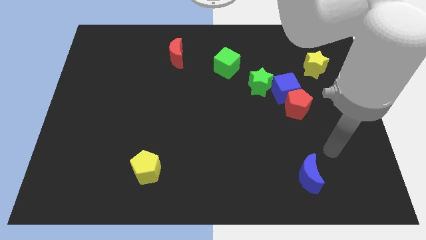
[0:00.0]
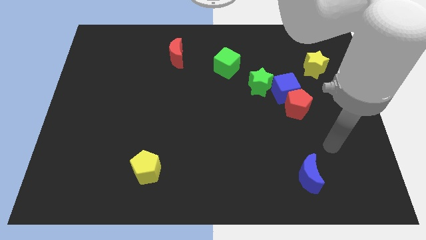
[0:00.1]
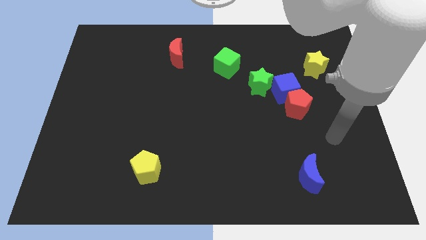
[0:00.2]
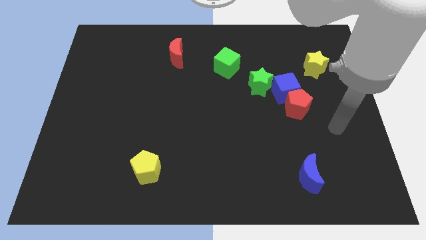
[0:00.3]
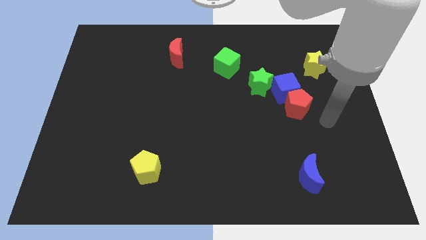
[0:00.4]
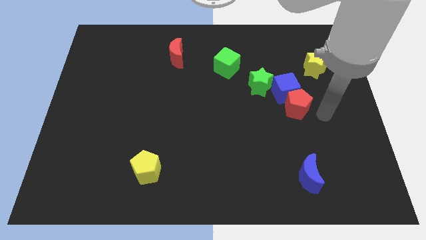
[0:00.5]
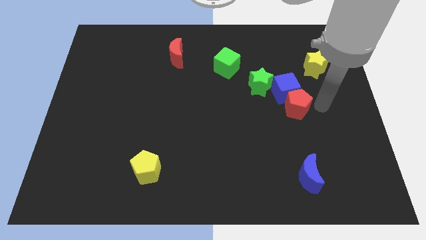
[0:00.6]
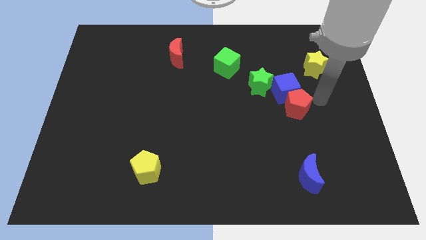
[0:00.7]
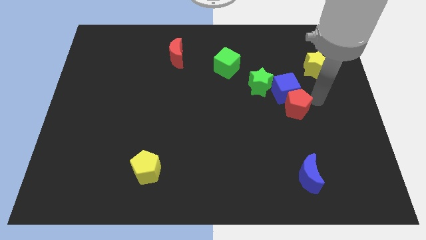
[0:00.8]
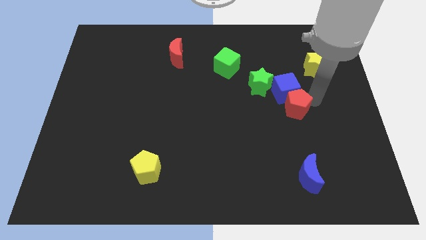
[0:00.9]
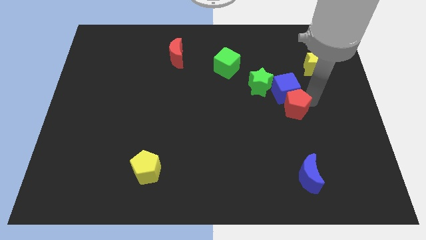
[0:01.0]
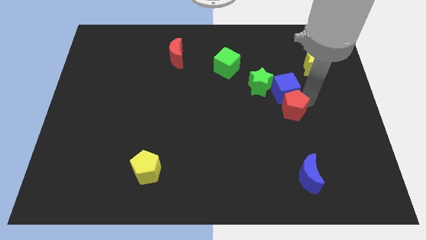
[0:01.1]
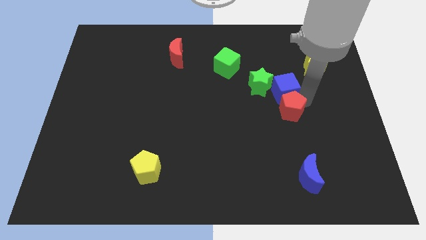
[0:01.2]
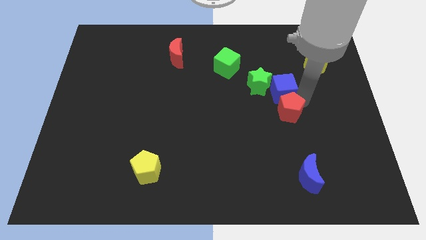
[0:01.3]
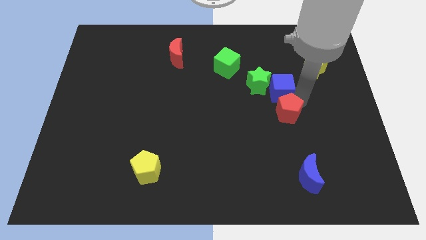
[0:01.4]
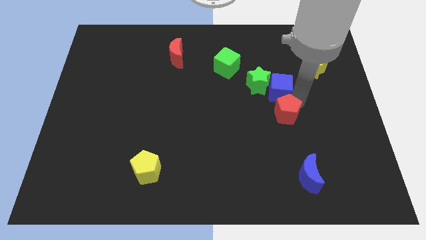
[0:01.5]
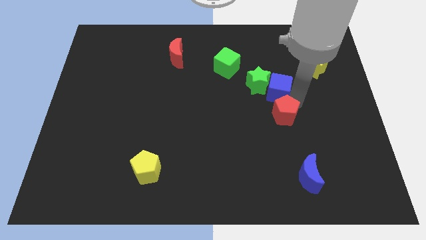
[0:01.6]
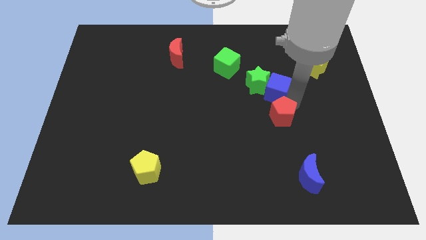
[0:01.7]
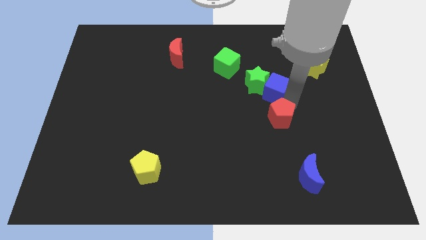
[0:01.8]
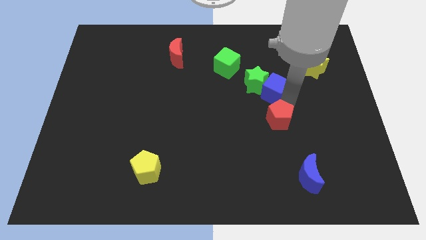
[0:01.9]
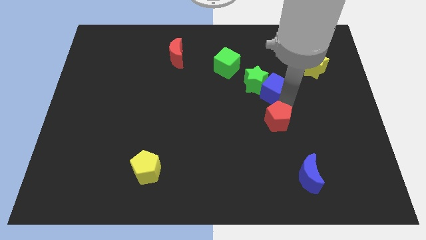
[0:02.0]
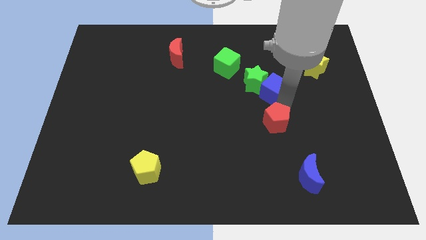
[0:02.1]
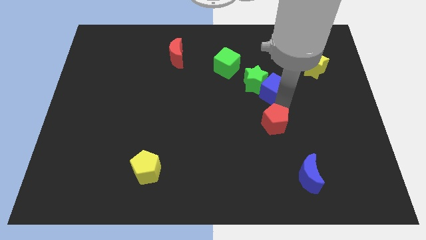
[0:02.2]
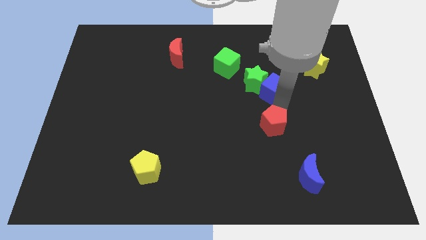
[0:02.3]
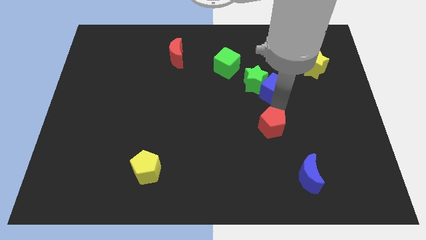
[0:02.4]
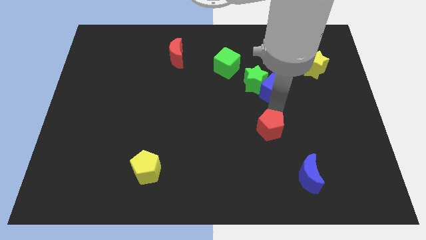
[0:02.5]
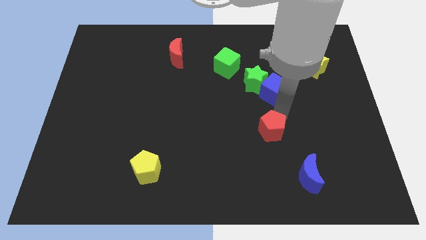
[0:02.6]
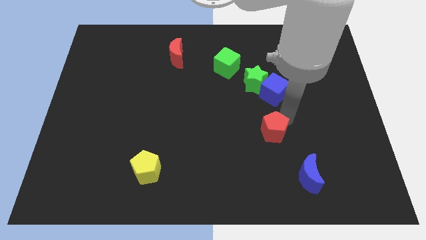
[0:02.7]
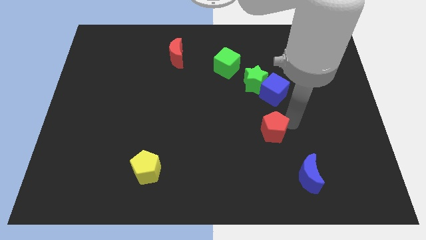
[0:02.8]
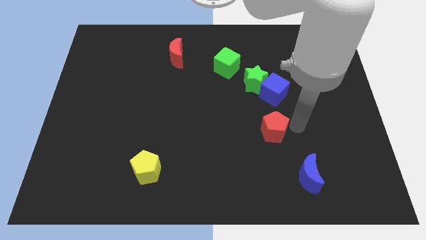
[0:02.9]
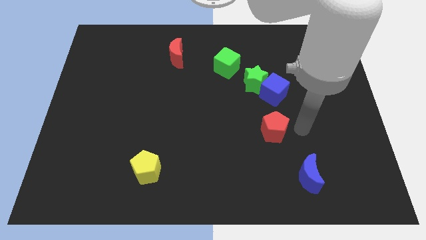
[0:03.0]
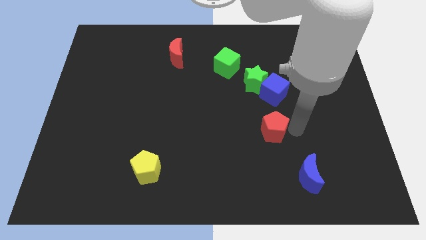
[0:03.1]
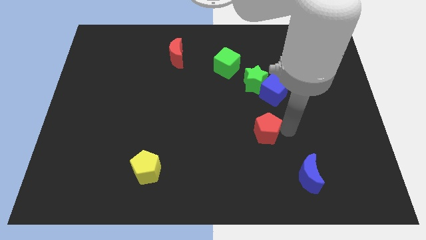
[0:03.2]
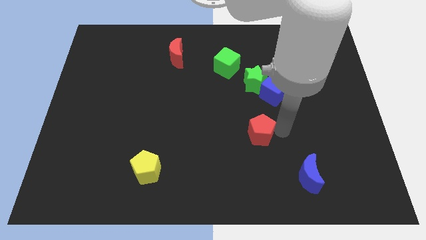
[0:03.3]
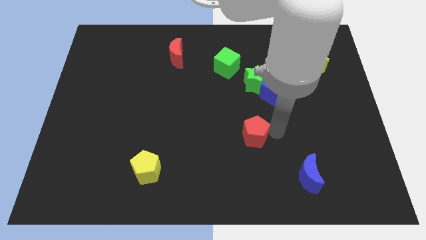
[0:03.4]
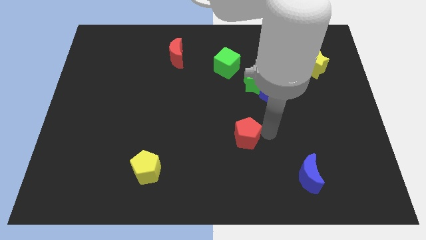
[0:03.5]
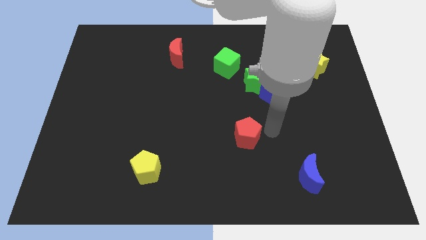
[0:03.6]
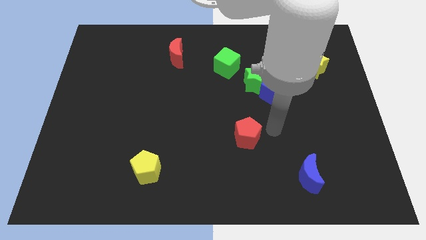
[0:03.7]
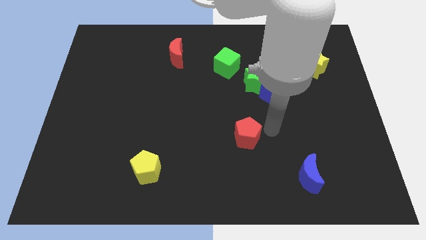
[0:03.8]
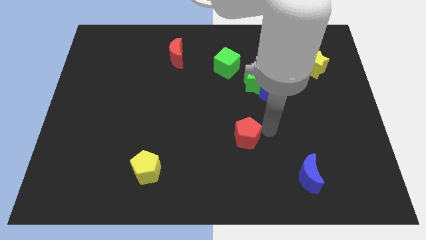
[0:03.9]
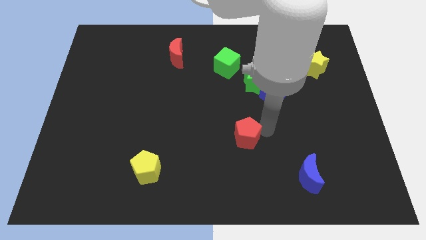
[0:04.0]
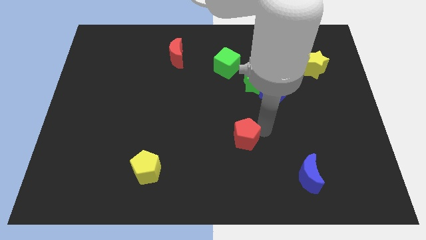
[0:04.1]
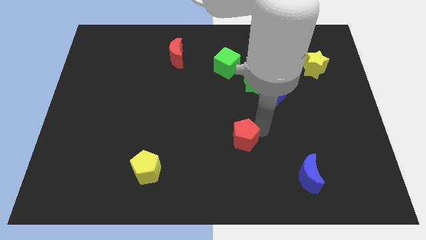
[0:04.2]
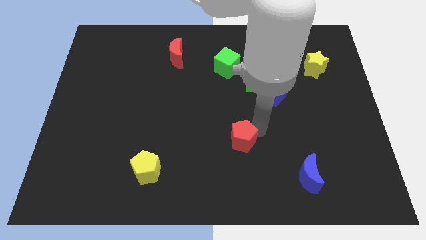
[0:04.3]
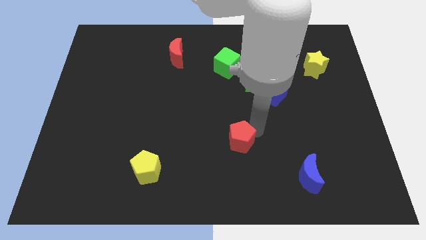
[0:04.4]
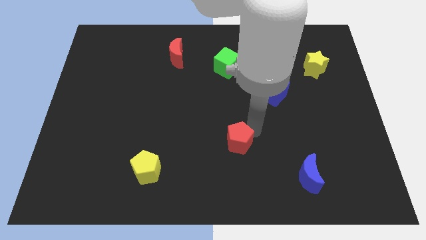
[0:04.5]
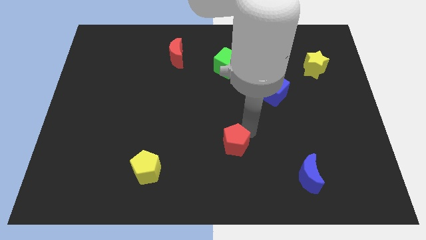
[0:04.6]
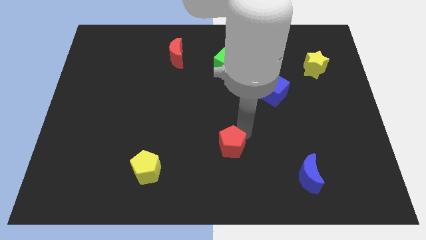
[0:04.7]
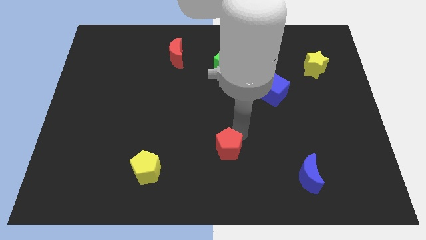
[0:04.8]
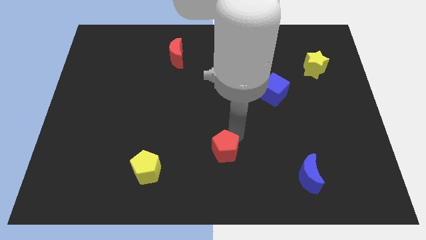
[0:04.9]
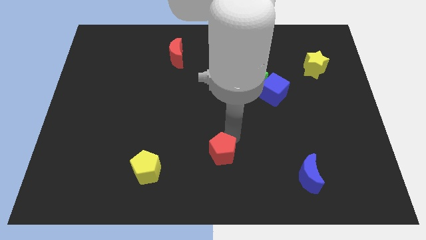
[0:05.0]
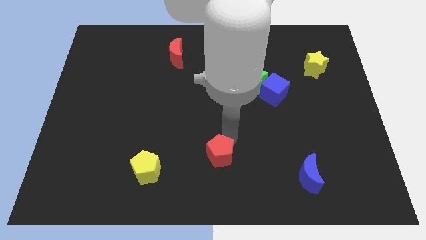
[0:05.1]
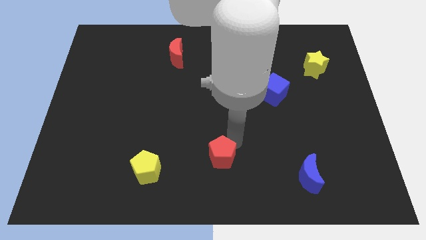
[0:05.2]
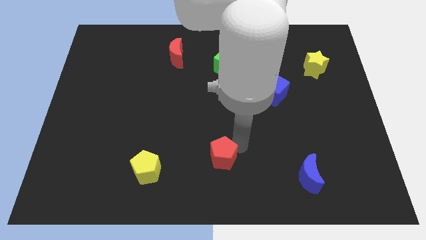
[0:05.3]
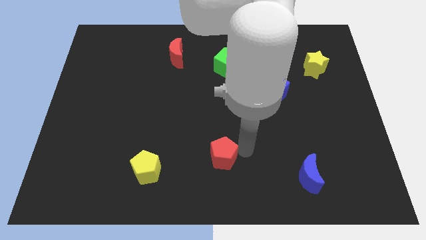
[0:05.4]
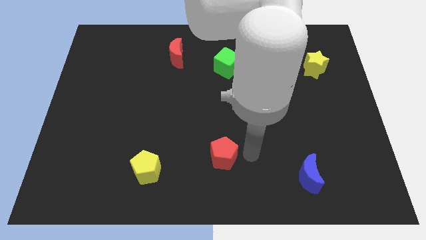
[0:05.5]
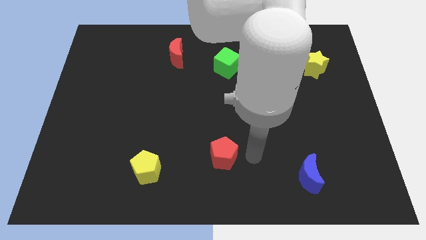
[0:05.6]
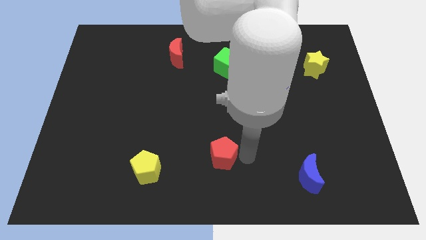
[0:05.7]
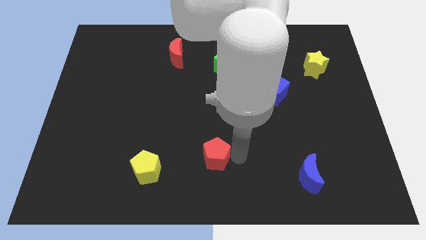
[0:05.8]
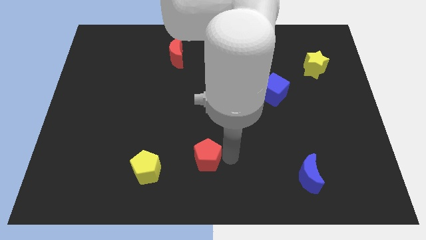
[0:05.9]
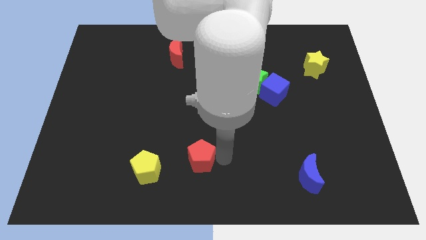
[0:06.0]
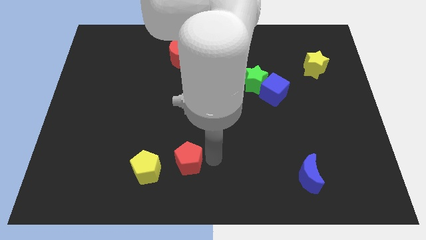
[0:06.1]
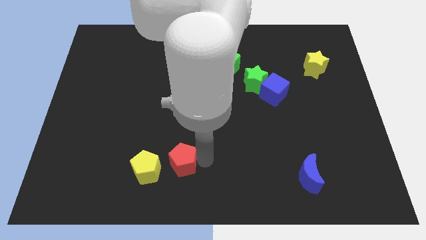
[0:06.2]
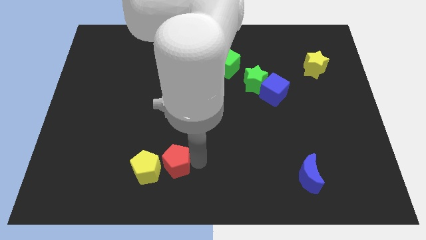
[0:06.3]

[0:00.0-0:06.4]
put the red pentagon close to the yellow pentagon
